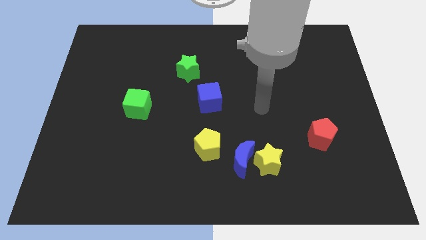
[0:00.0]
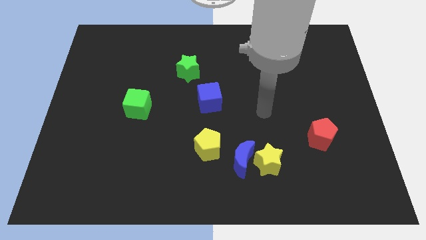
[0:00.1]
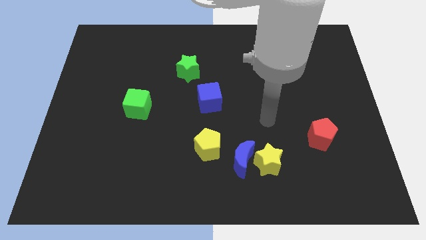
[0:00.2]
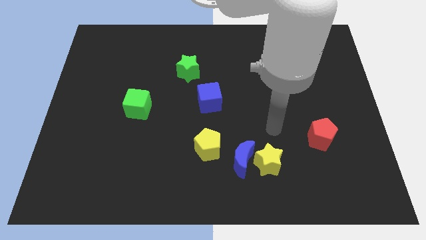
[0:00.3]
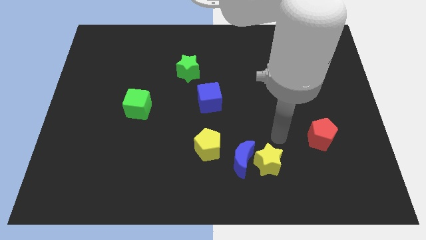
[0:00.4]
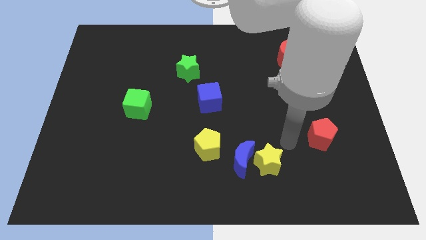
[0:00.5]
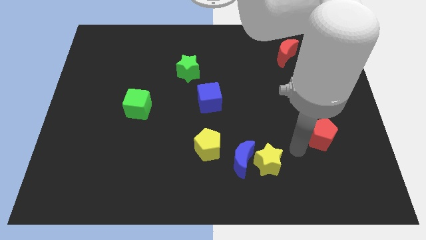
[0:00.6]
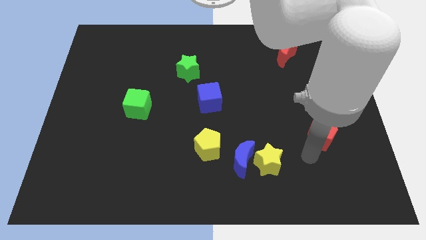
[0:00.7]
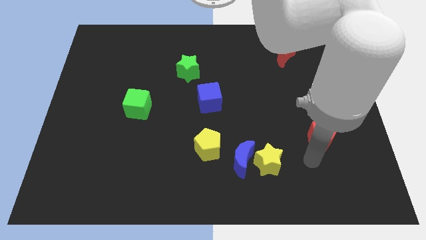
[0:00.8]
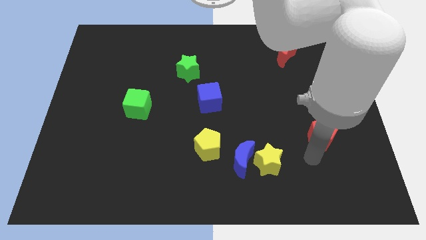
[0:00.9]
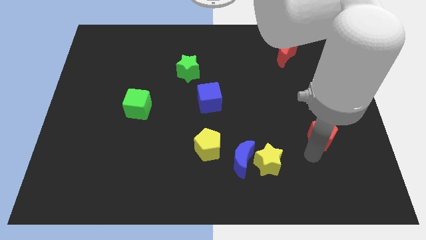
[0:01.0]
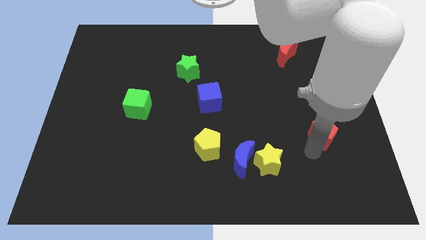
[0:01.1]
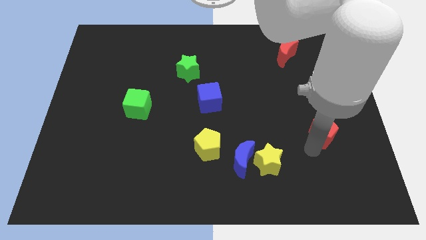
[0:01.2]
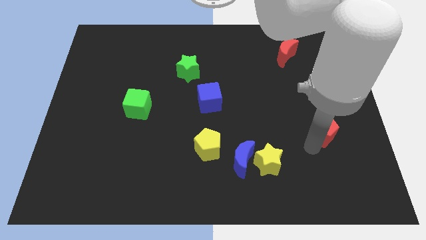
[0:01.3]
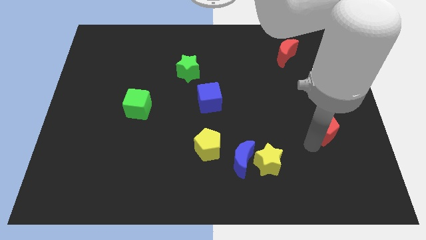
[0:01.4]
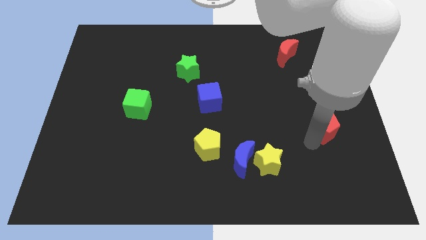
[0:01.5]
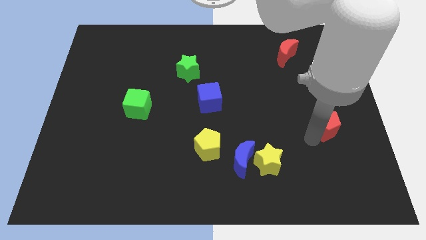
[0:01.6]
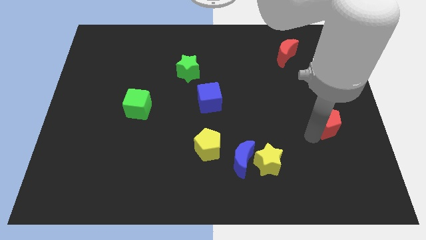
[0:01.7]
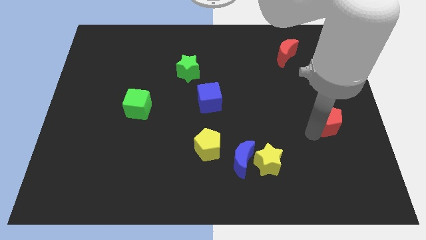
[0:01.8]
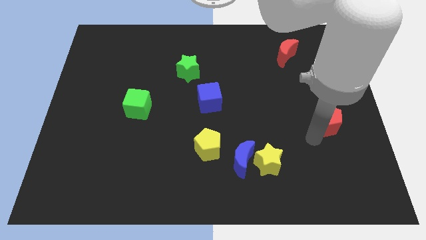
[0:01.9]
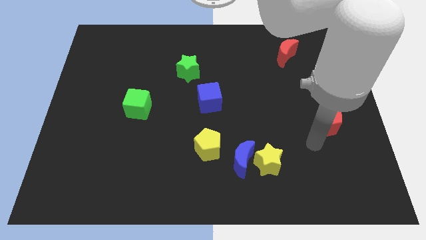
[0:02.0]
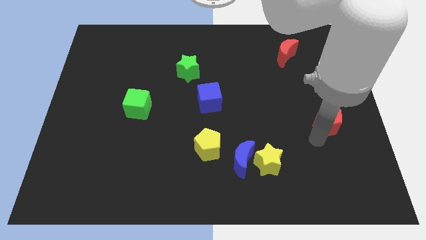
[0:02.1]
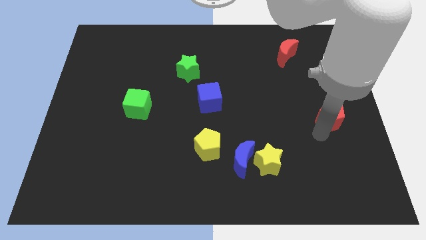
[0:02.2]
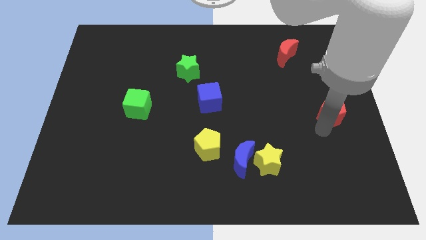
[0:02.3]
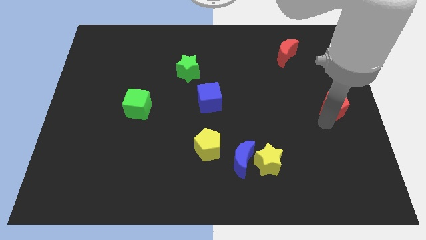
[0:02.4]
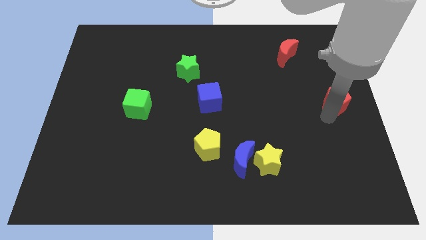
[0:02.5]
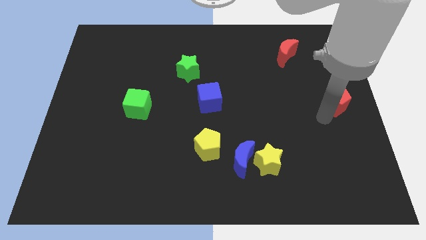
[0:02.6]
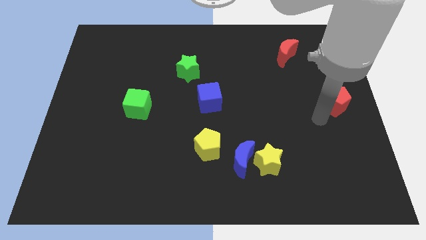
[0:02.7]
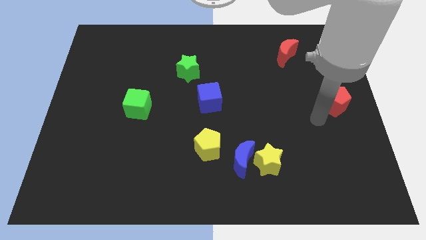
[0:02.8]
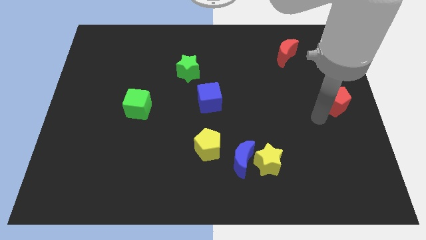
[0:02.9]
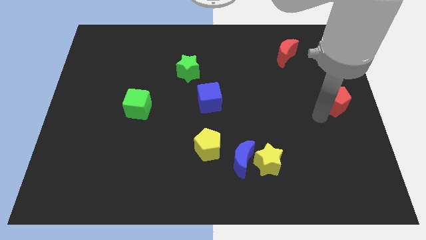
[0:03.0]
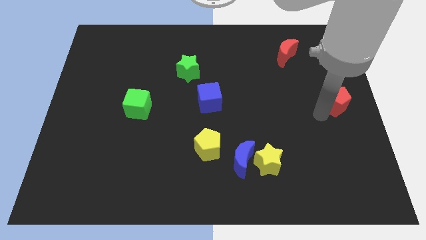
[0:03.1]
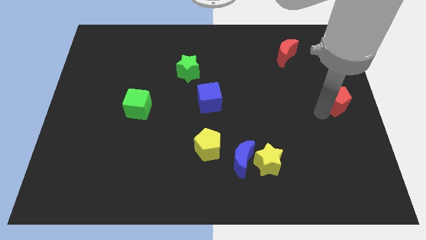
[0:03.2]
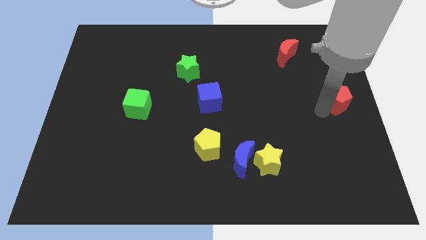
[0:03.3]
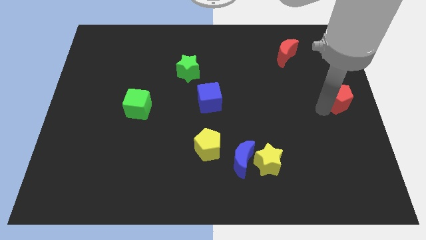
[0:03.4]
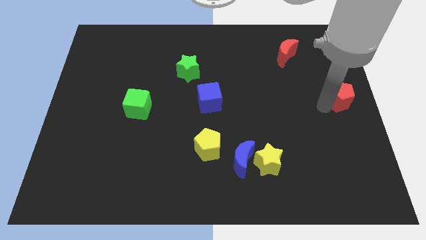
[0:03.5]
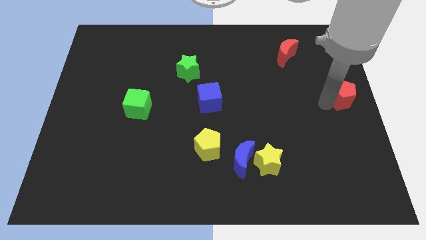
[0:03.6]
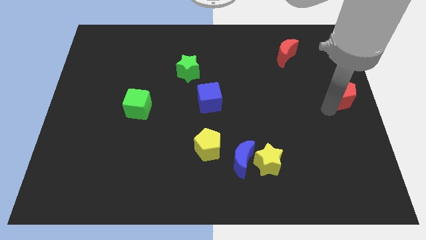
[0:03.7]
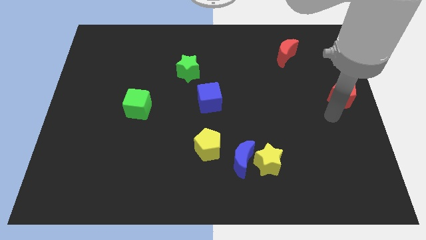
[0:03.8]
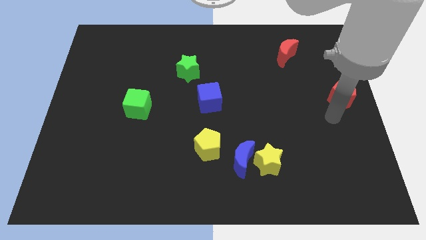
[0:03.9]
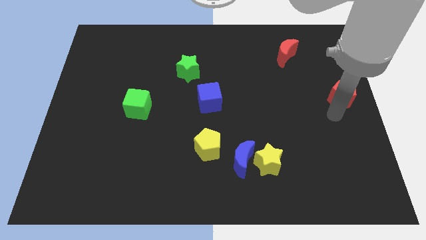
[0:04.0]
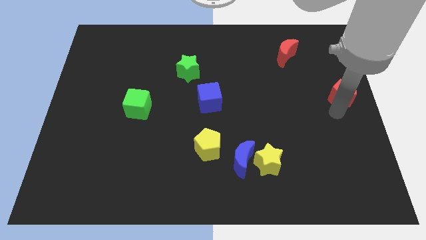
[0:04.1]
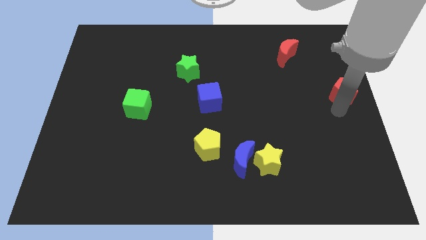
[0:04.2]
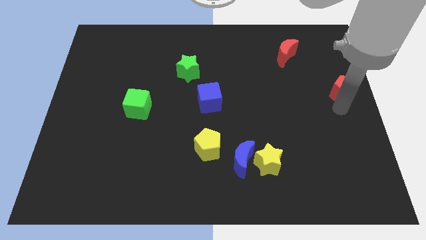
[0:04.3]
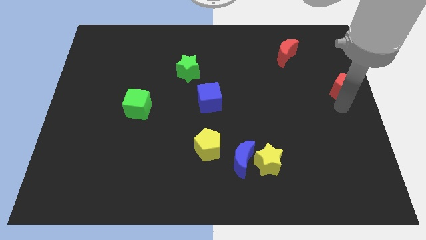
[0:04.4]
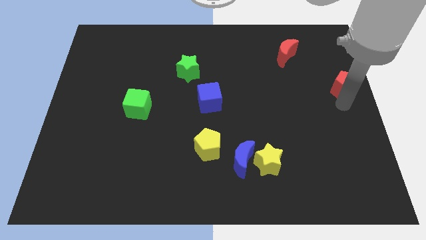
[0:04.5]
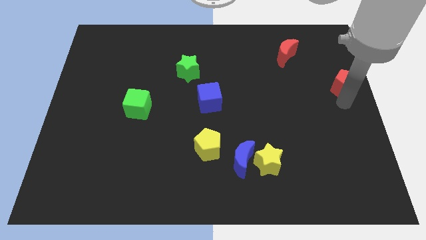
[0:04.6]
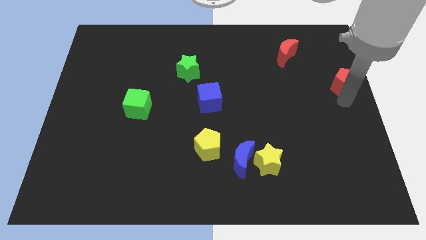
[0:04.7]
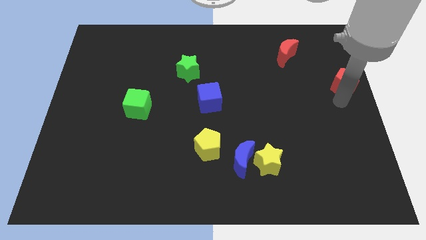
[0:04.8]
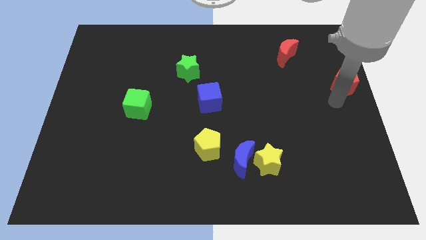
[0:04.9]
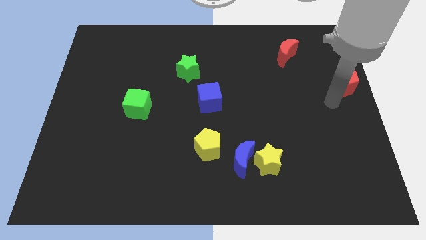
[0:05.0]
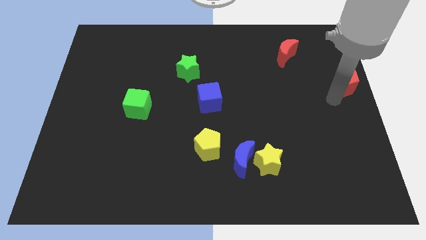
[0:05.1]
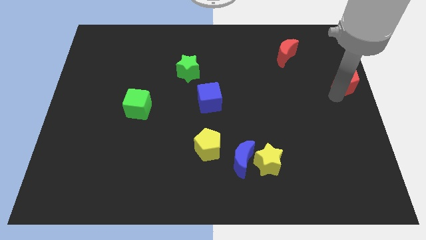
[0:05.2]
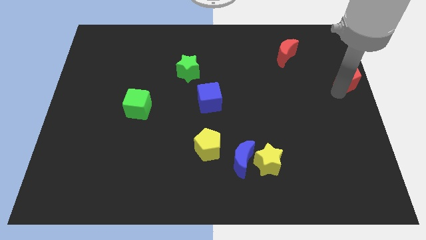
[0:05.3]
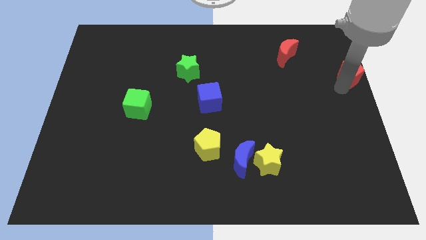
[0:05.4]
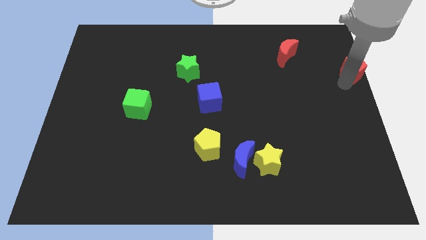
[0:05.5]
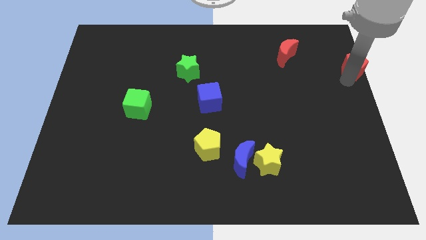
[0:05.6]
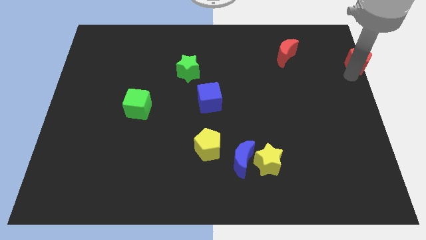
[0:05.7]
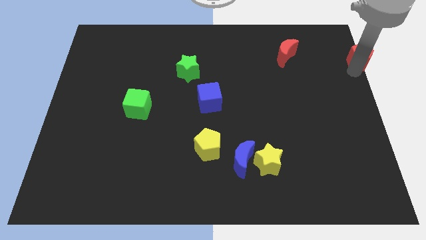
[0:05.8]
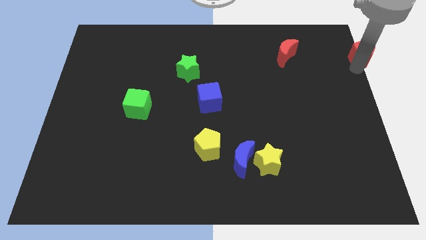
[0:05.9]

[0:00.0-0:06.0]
put the red pentagon to the top right of the board

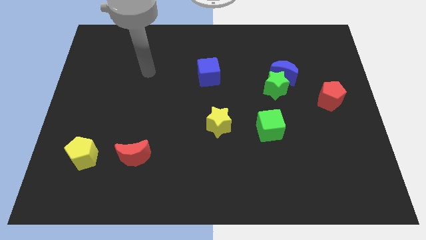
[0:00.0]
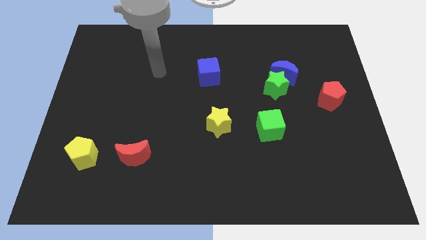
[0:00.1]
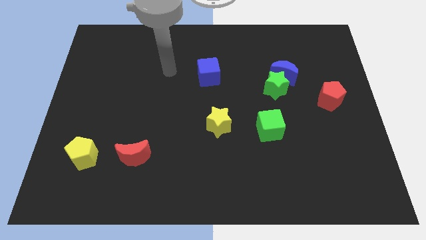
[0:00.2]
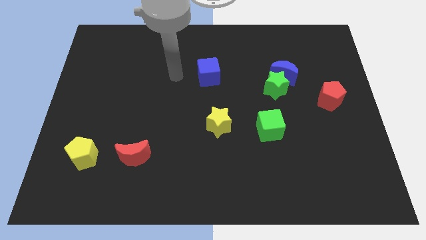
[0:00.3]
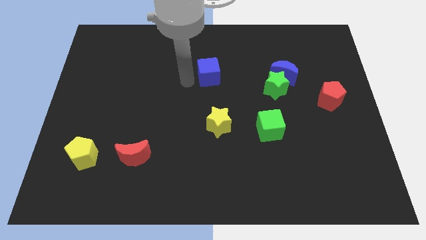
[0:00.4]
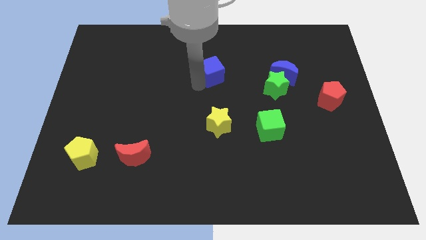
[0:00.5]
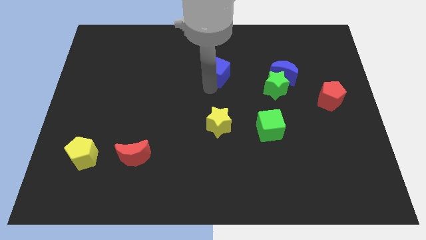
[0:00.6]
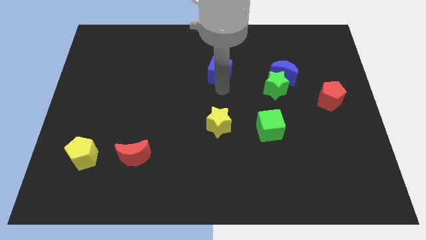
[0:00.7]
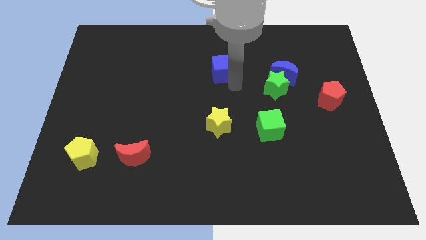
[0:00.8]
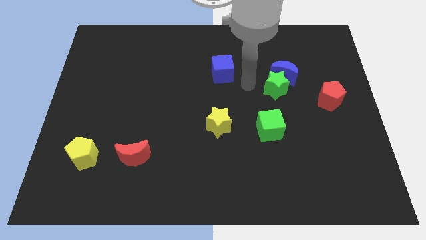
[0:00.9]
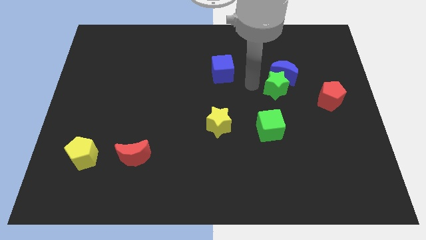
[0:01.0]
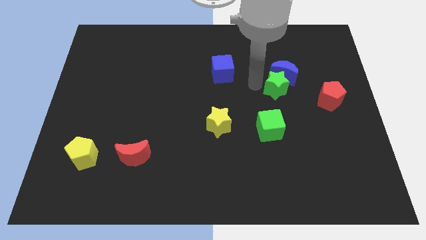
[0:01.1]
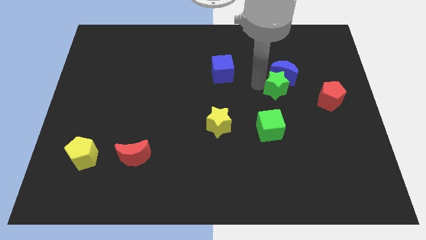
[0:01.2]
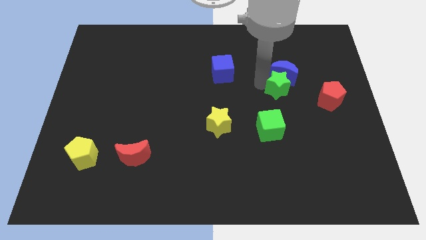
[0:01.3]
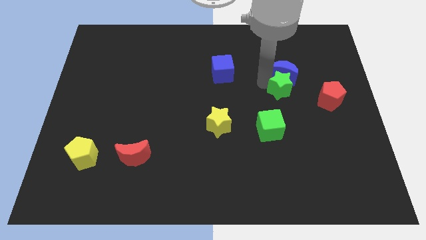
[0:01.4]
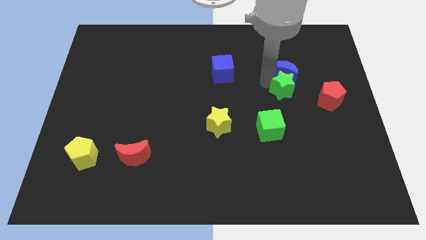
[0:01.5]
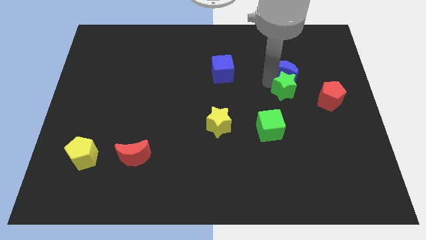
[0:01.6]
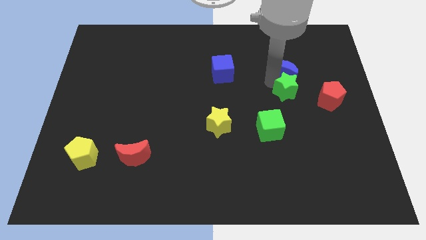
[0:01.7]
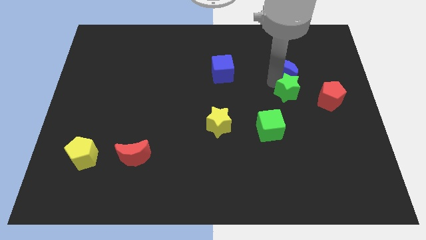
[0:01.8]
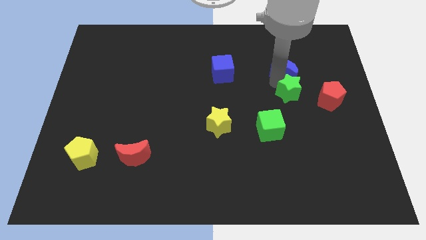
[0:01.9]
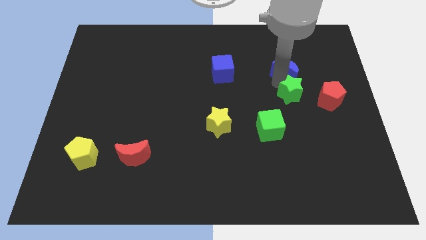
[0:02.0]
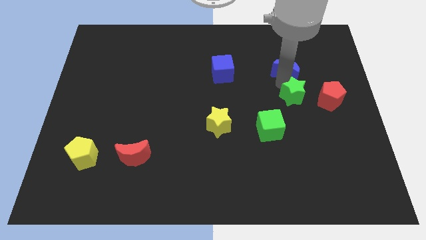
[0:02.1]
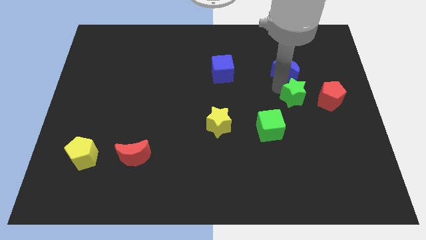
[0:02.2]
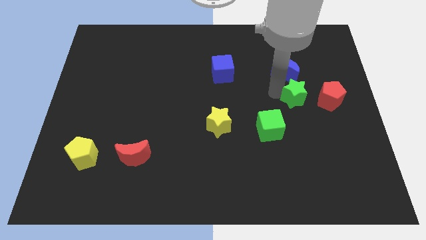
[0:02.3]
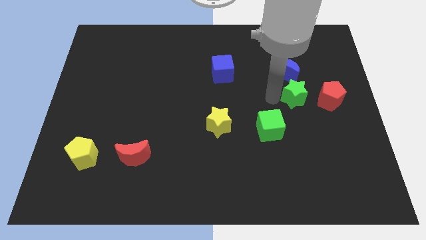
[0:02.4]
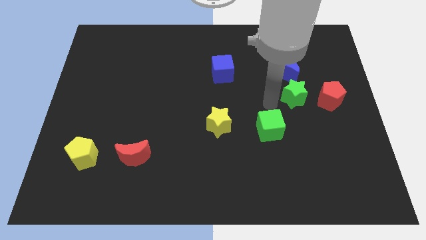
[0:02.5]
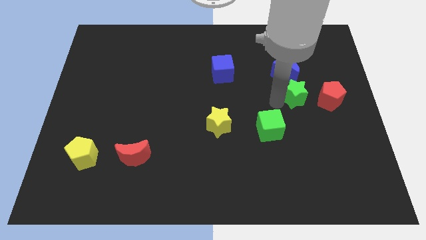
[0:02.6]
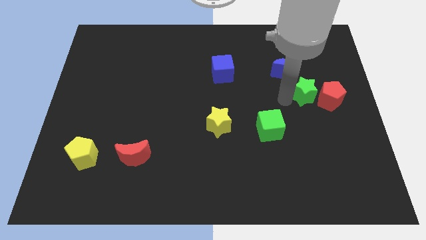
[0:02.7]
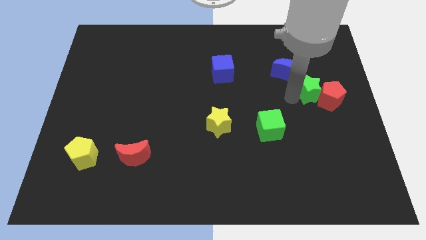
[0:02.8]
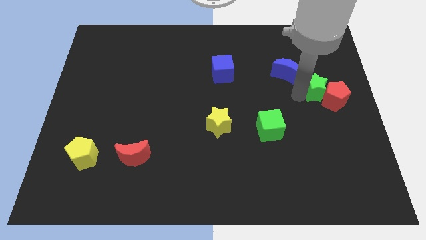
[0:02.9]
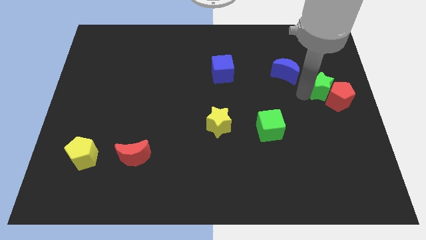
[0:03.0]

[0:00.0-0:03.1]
push the green star to the right side of the board
